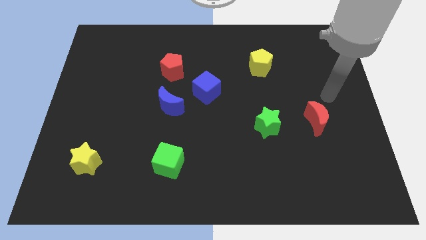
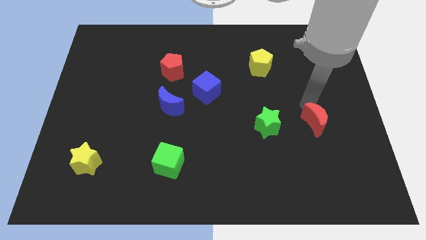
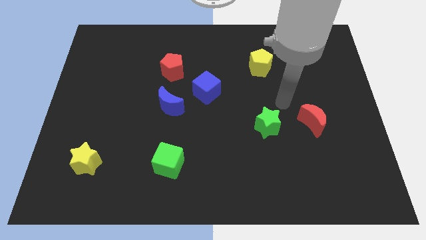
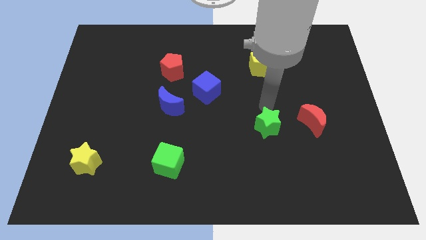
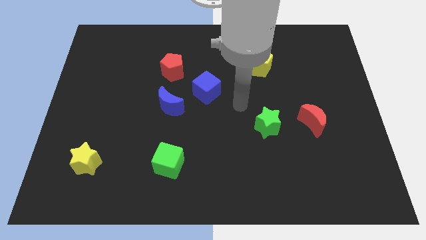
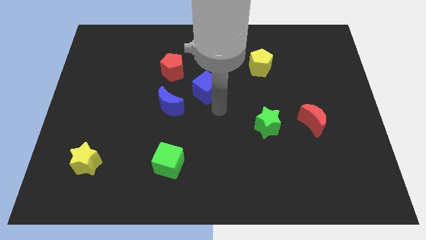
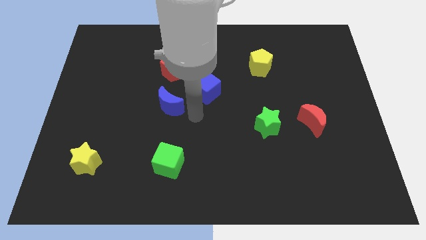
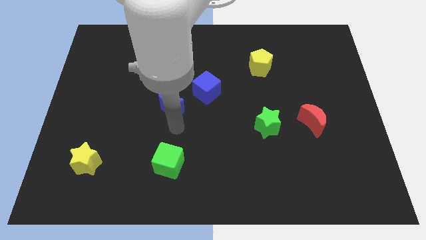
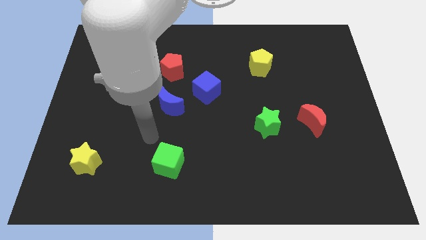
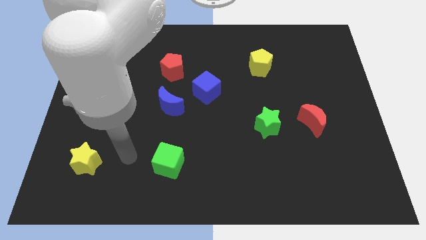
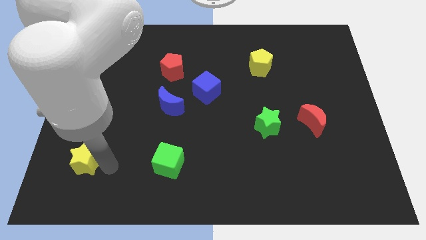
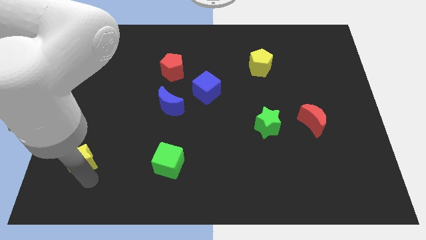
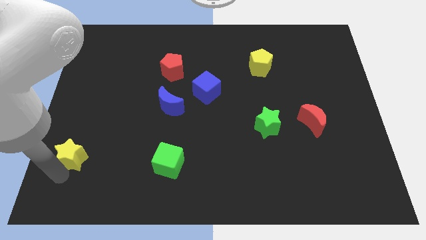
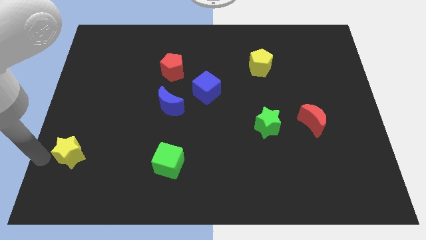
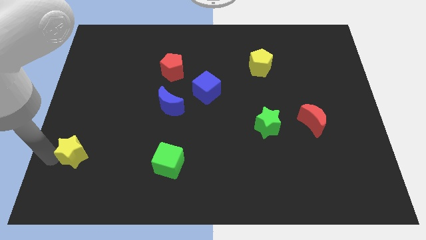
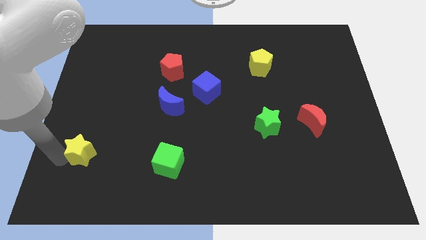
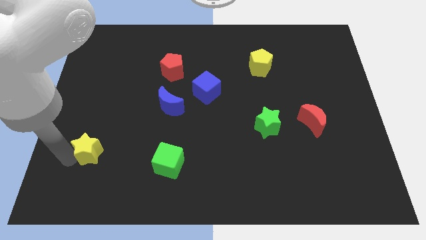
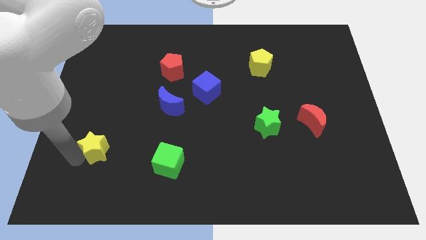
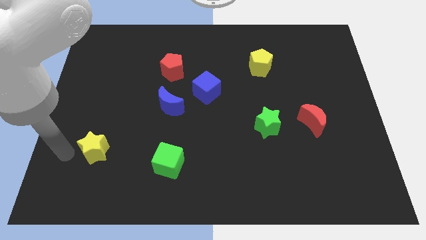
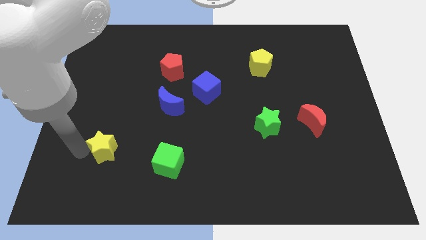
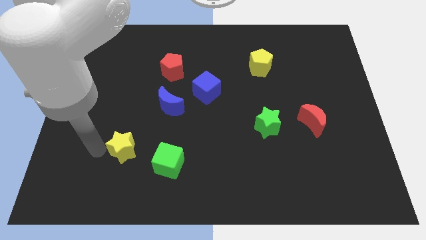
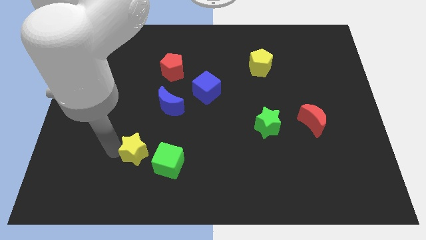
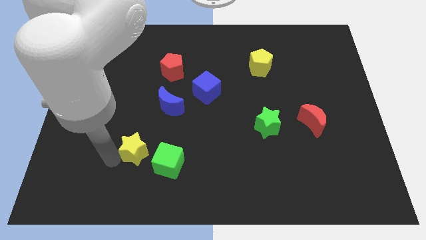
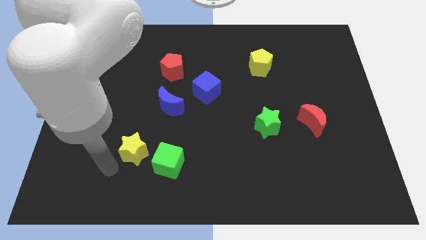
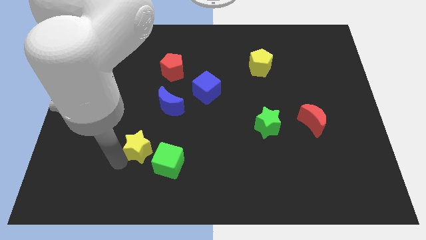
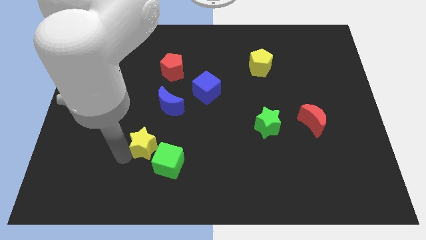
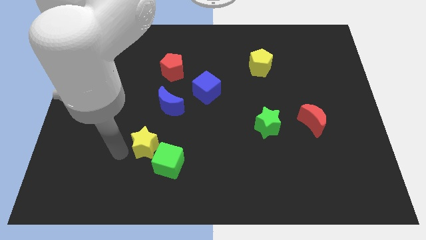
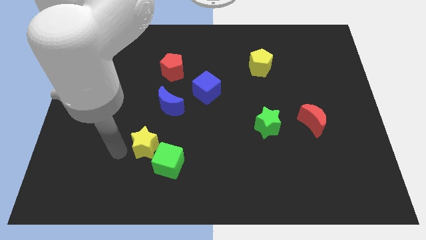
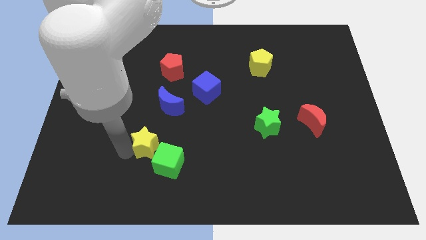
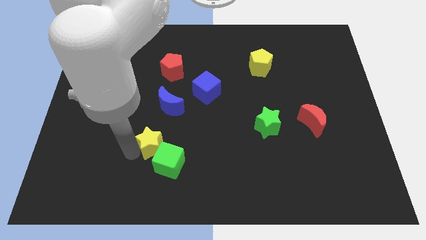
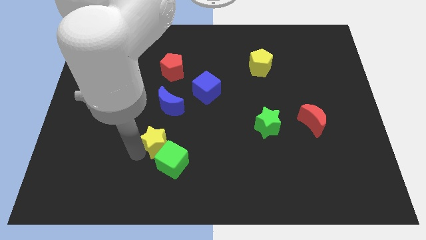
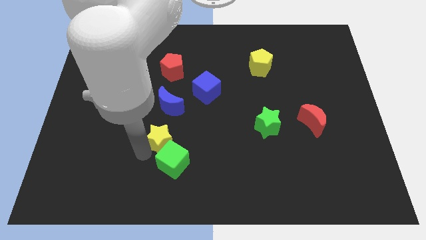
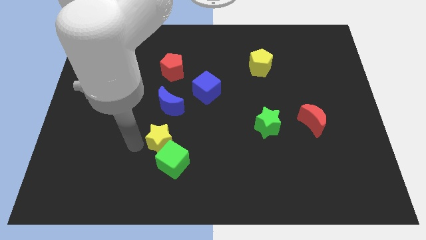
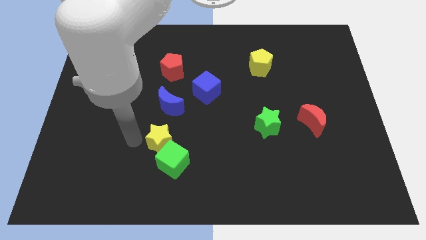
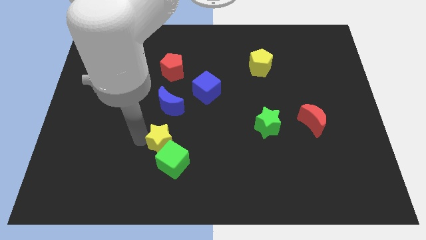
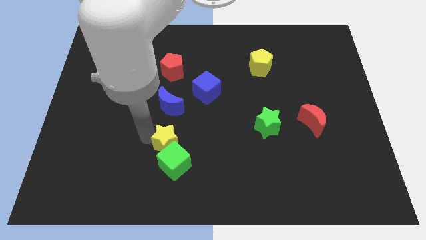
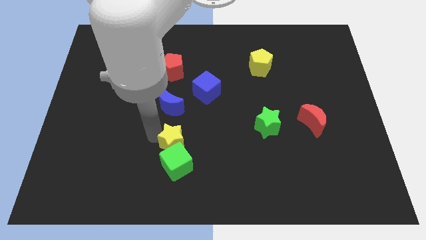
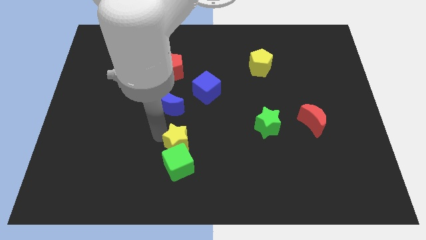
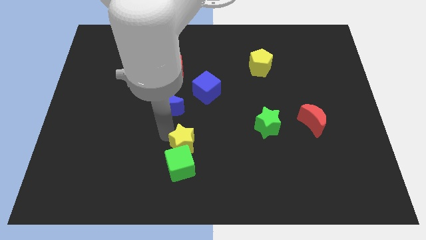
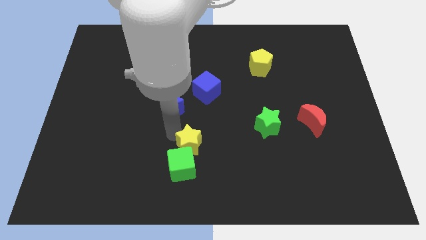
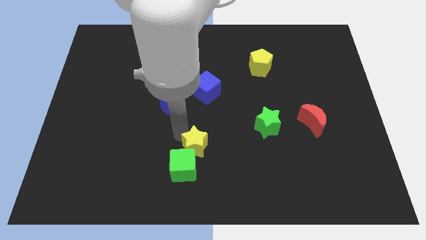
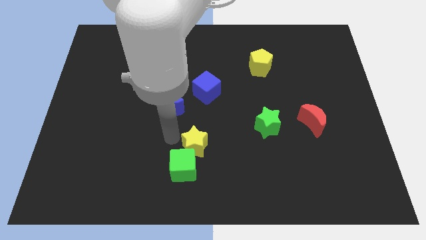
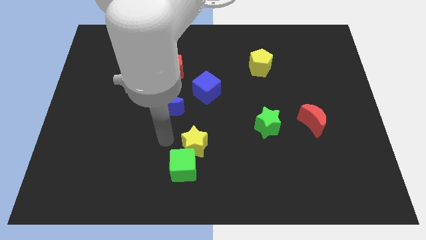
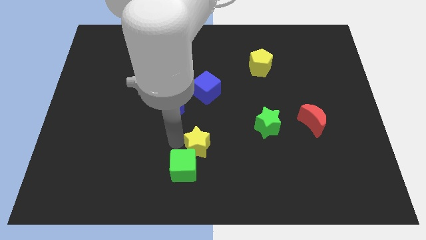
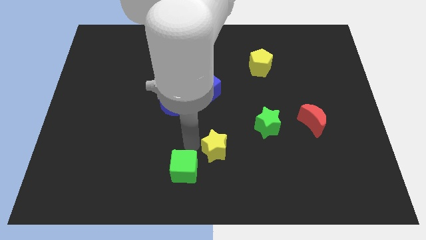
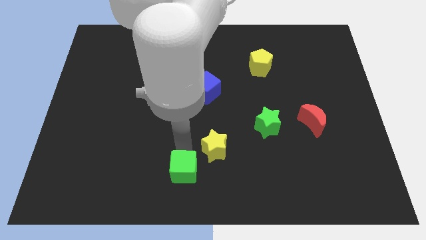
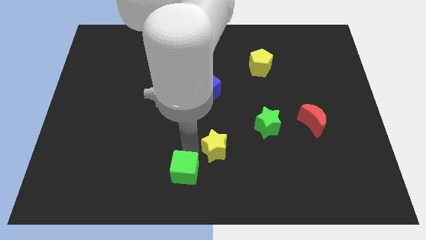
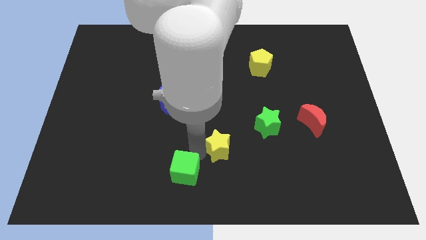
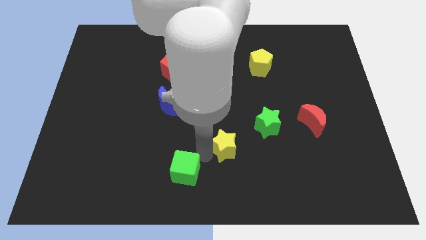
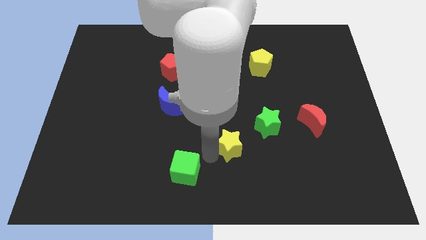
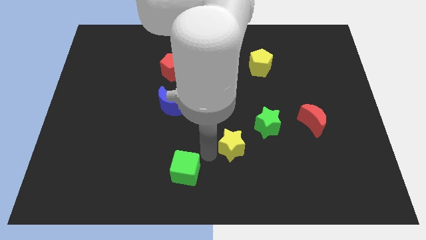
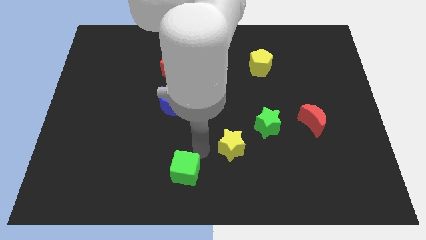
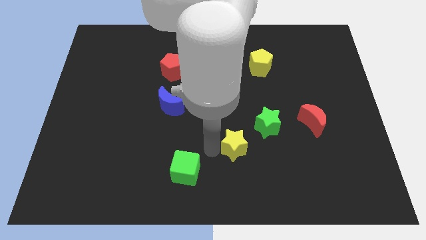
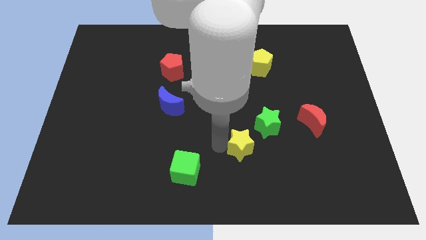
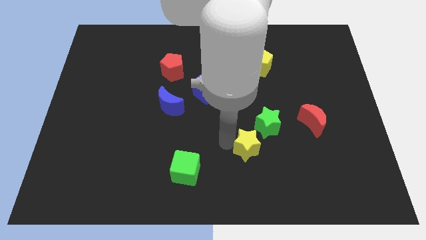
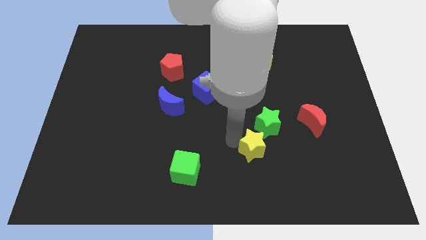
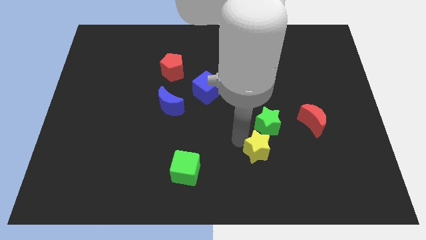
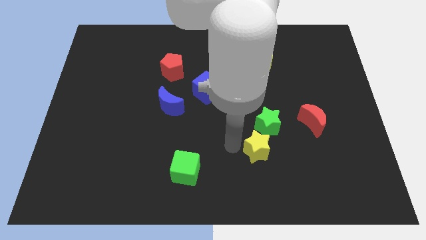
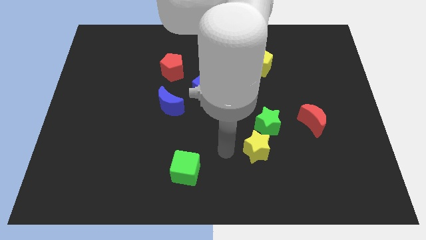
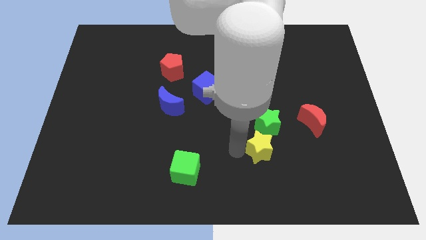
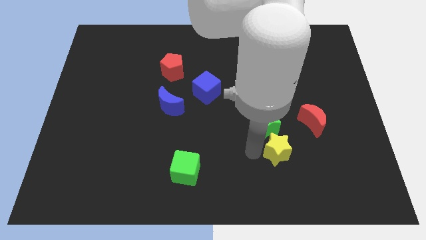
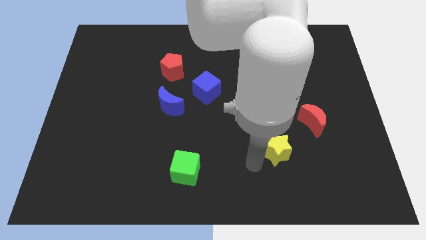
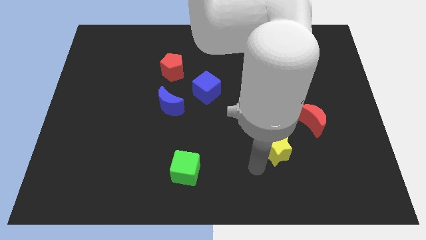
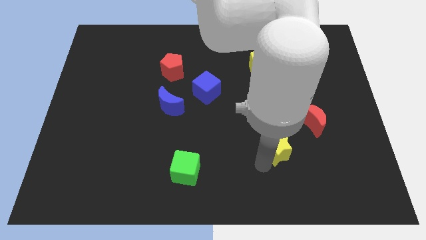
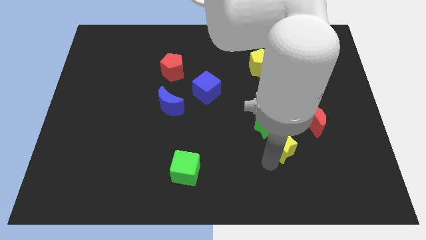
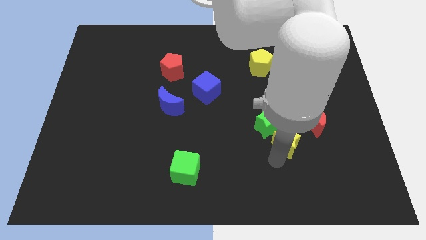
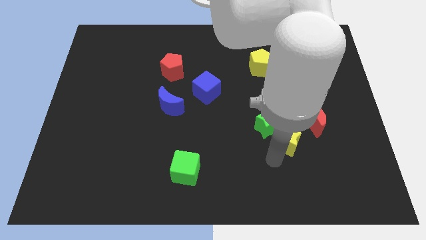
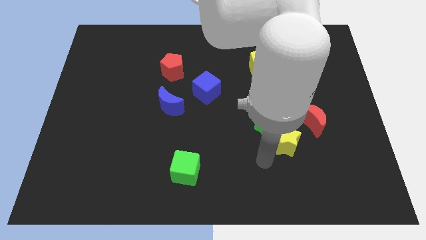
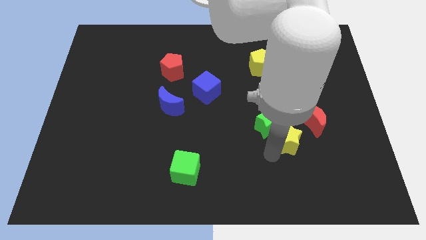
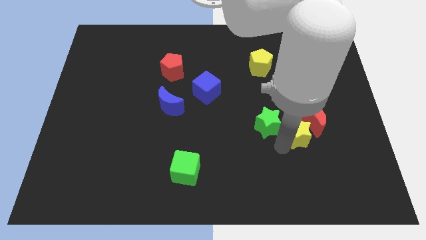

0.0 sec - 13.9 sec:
slide the yellow star to the red moon
